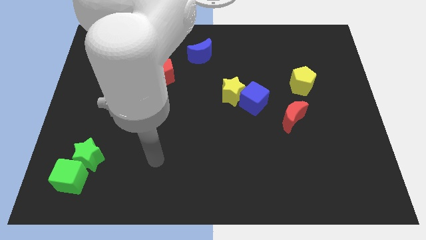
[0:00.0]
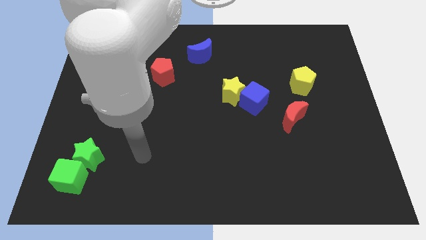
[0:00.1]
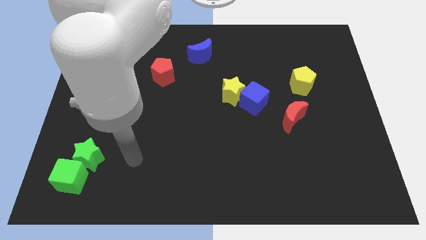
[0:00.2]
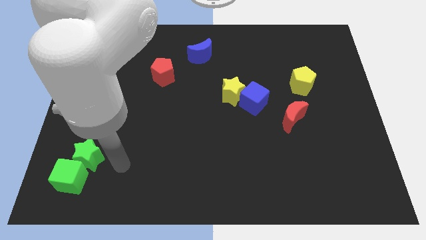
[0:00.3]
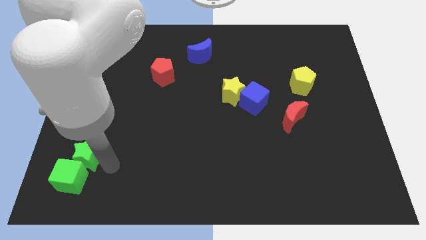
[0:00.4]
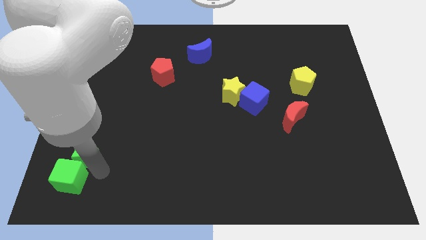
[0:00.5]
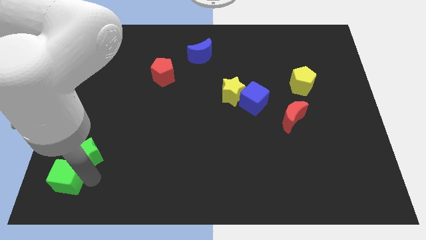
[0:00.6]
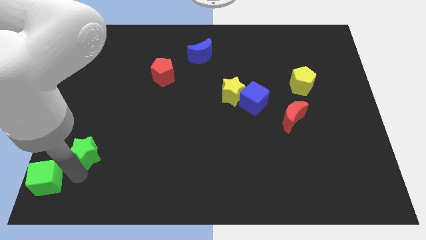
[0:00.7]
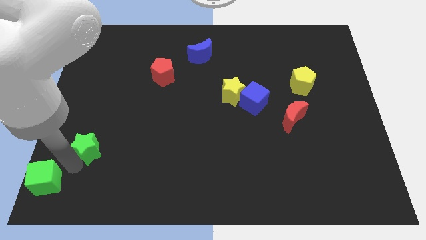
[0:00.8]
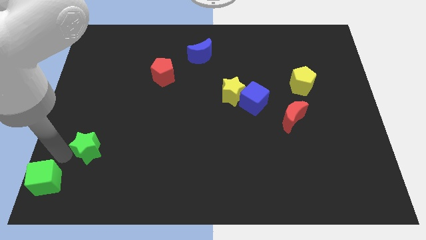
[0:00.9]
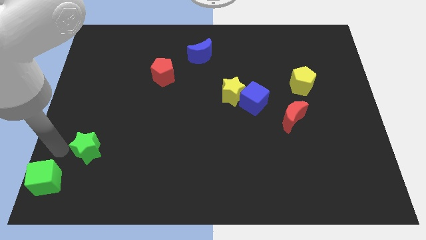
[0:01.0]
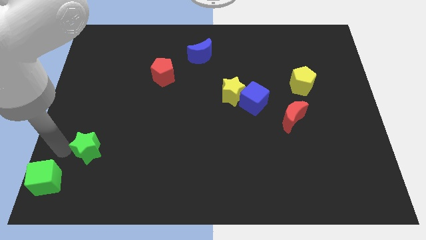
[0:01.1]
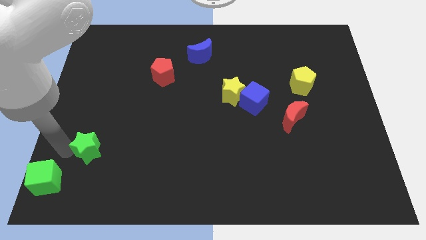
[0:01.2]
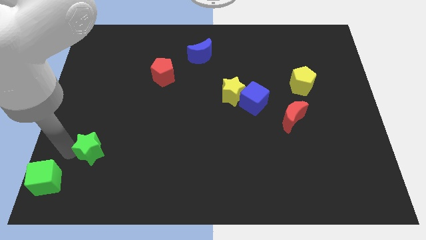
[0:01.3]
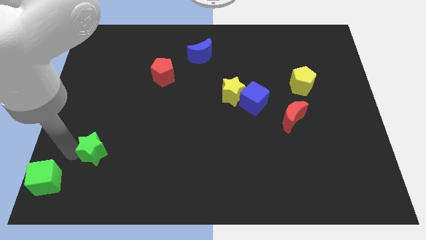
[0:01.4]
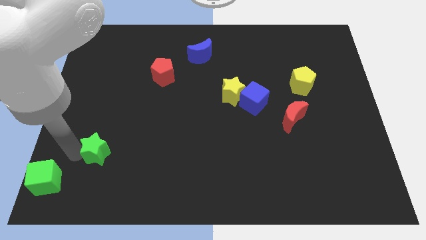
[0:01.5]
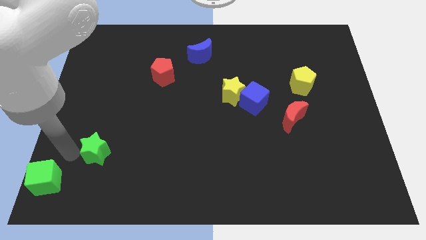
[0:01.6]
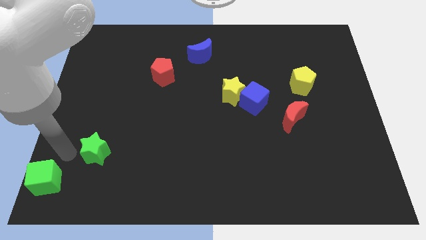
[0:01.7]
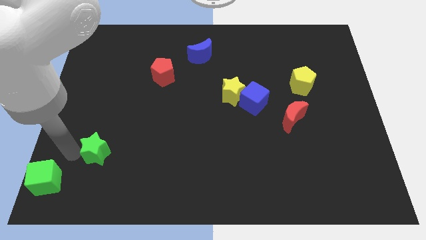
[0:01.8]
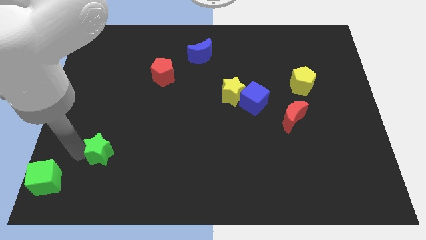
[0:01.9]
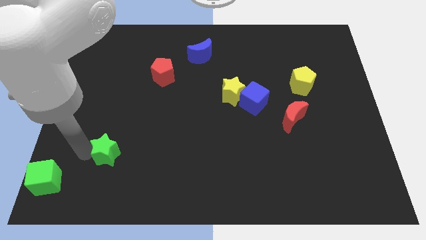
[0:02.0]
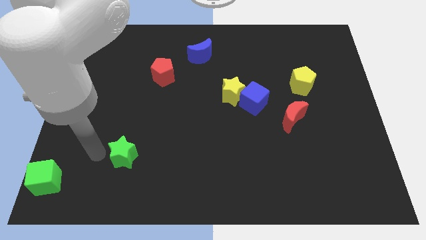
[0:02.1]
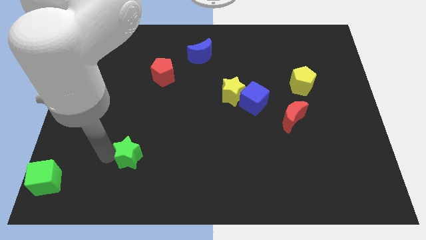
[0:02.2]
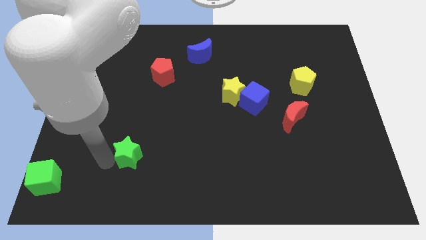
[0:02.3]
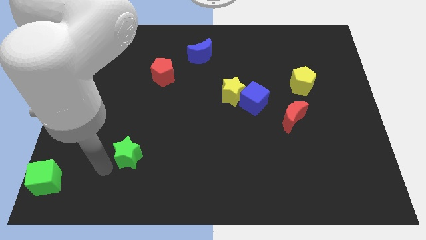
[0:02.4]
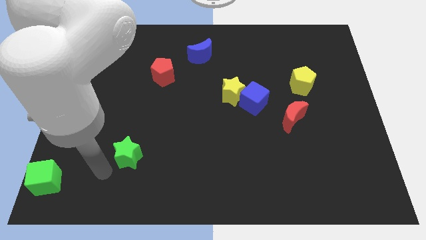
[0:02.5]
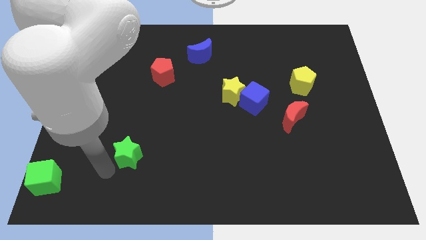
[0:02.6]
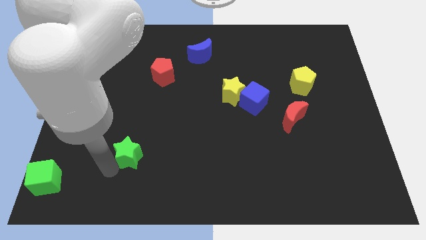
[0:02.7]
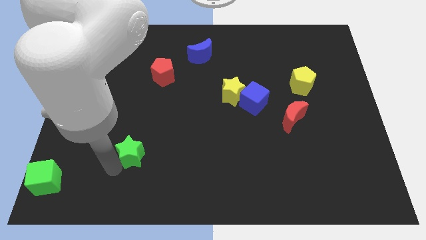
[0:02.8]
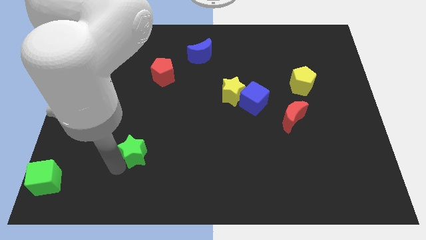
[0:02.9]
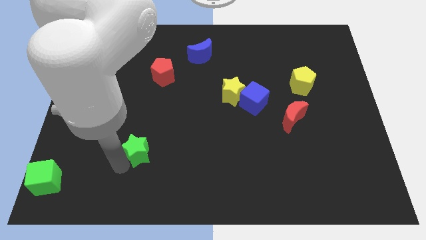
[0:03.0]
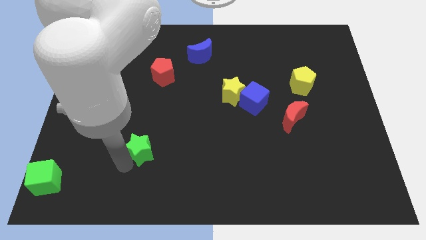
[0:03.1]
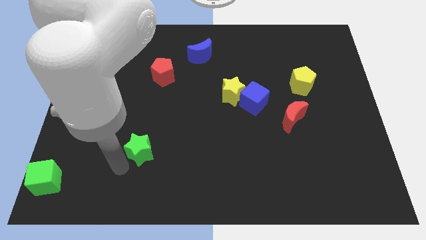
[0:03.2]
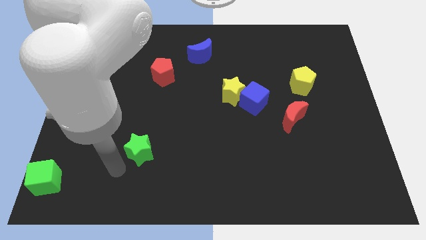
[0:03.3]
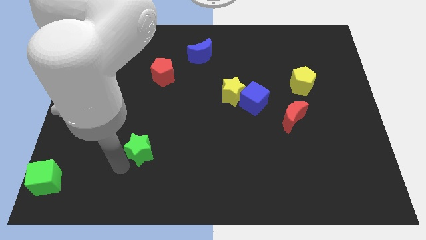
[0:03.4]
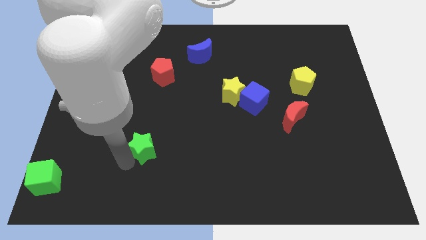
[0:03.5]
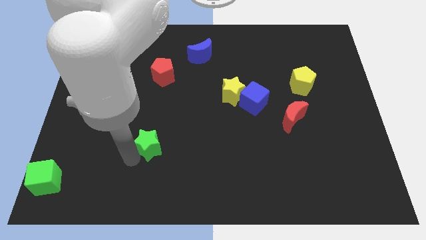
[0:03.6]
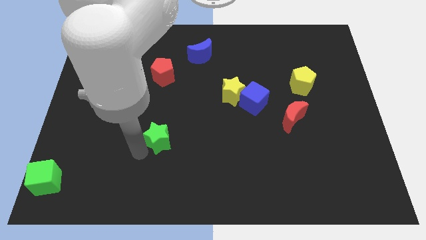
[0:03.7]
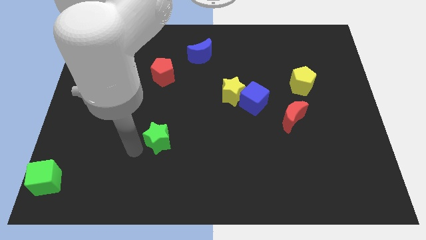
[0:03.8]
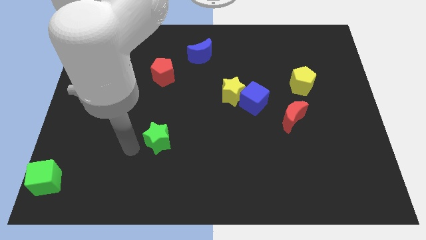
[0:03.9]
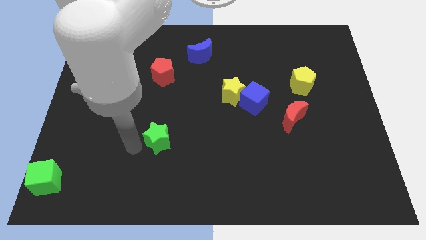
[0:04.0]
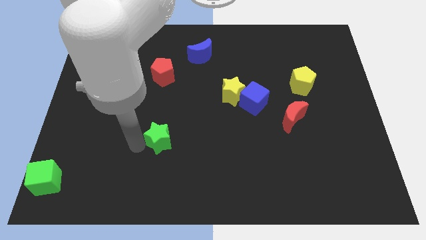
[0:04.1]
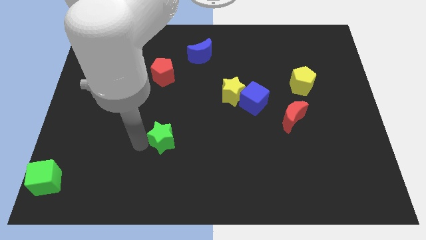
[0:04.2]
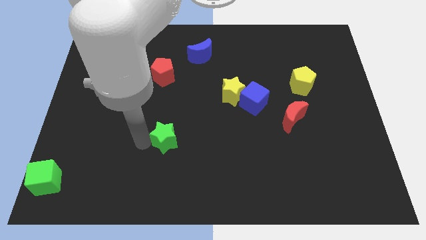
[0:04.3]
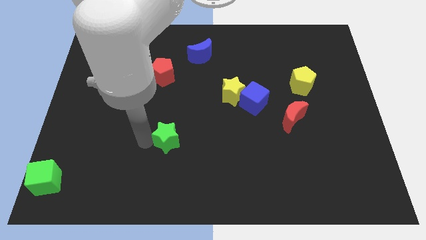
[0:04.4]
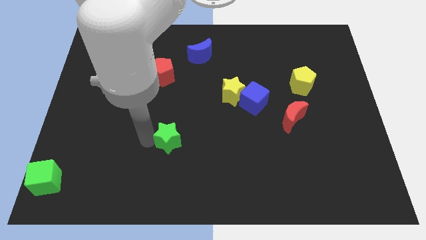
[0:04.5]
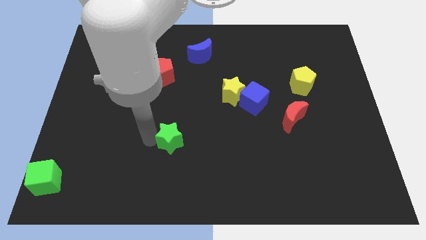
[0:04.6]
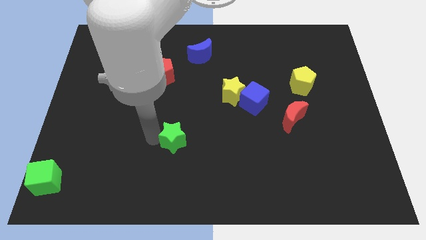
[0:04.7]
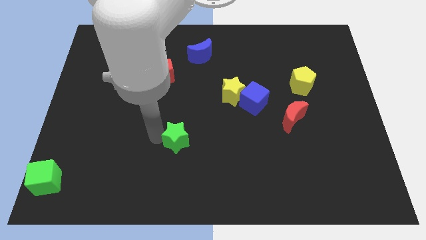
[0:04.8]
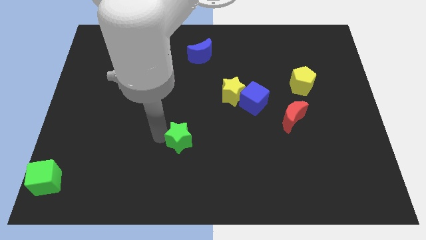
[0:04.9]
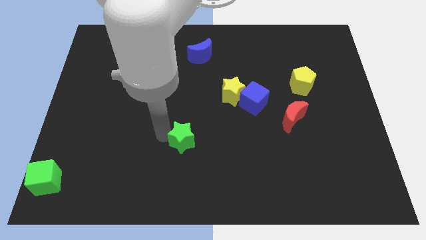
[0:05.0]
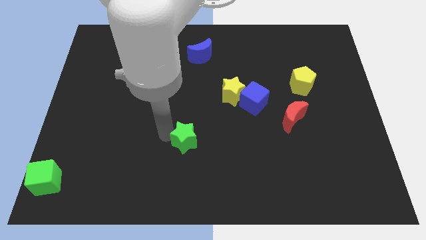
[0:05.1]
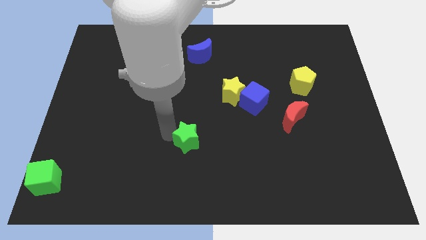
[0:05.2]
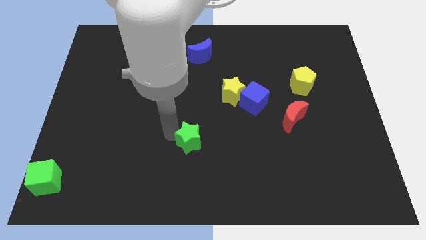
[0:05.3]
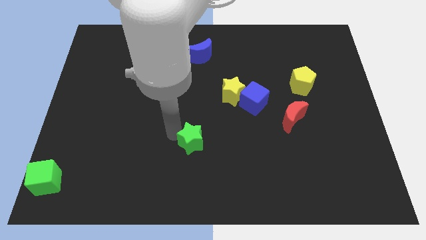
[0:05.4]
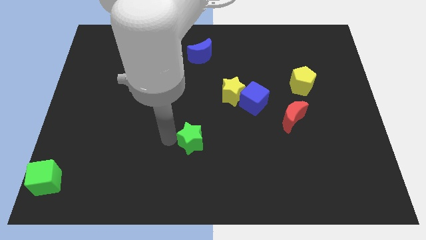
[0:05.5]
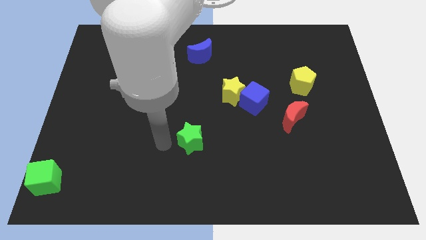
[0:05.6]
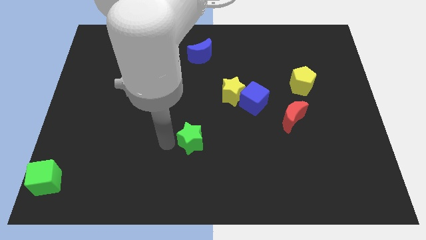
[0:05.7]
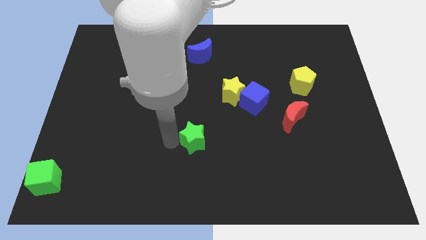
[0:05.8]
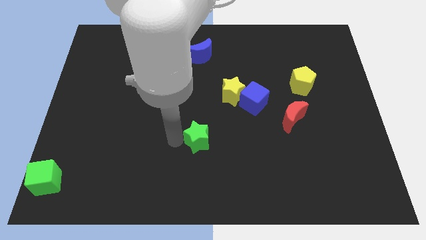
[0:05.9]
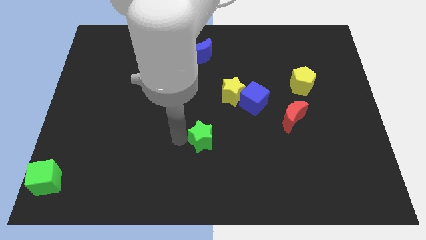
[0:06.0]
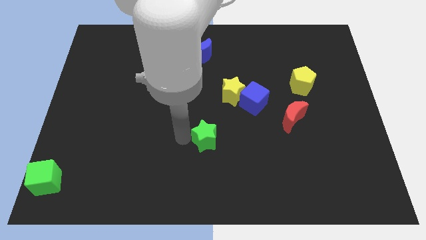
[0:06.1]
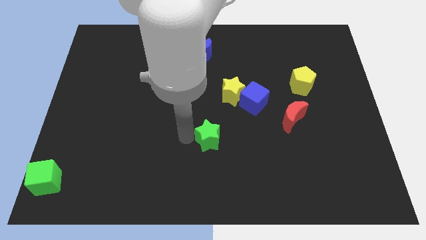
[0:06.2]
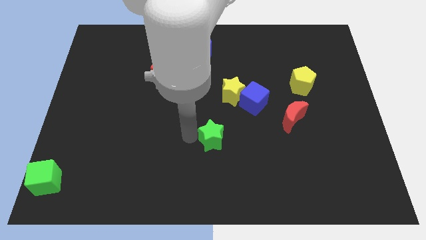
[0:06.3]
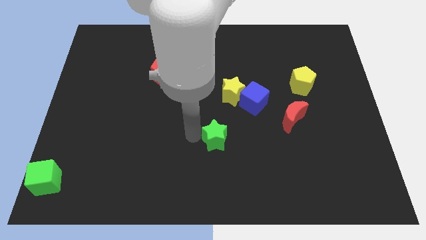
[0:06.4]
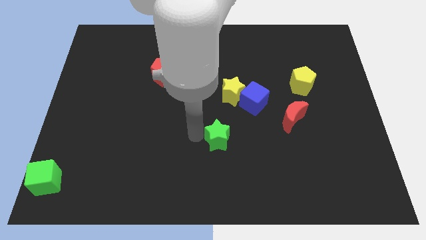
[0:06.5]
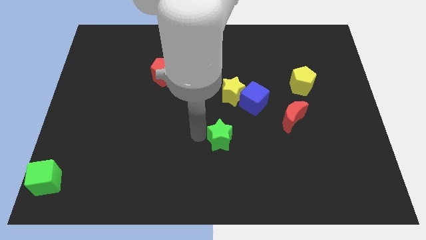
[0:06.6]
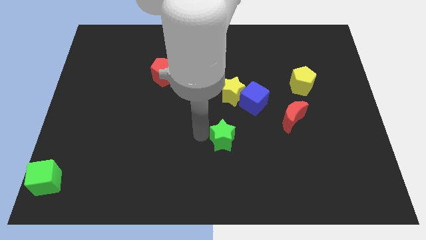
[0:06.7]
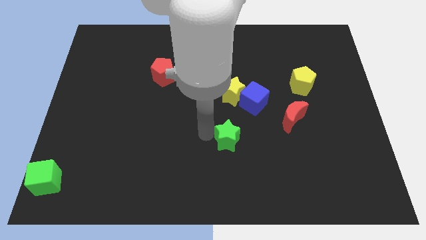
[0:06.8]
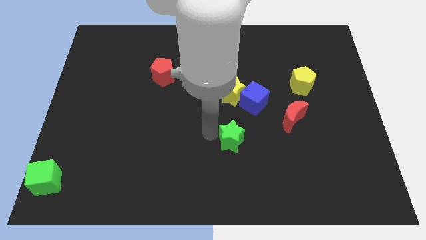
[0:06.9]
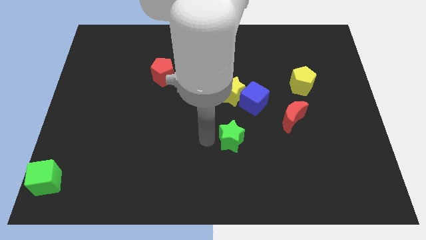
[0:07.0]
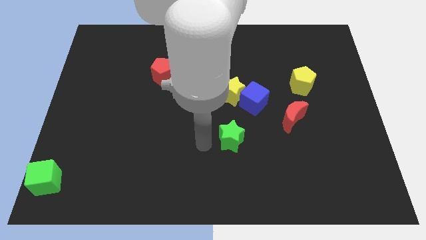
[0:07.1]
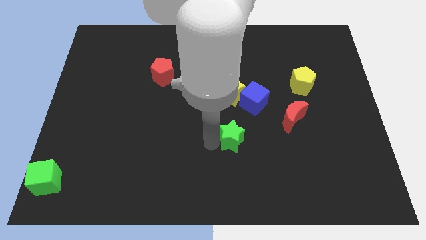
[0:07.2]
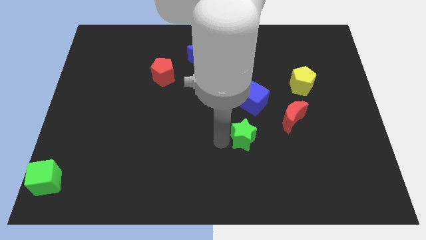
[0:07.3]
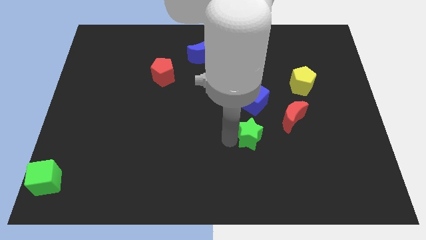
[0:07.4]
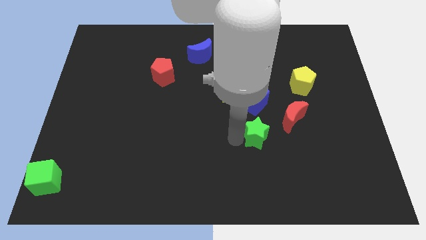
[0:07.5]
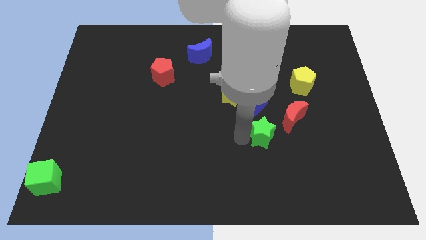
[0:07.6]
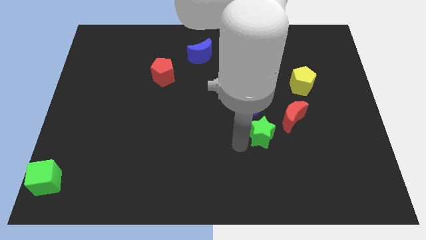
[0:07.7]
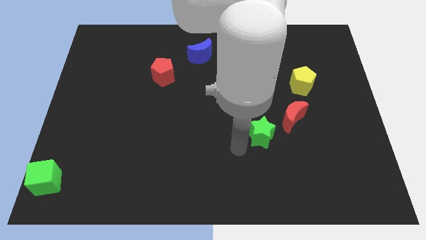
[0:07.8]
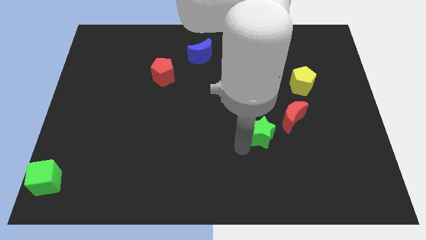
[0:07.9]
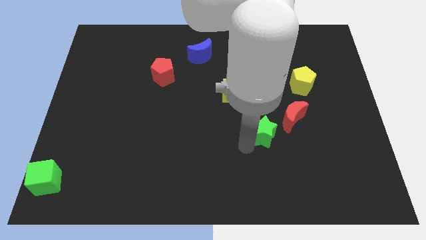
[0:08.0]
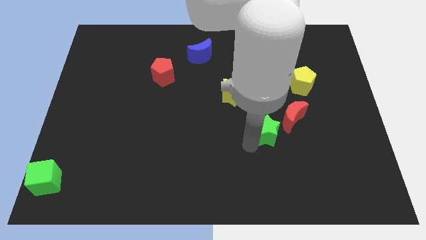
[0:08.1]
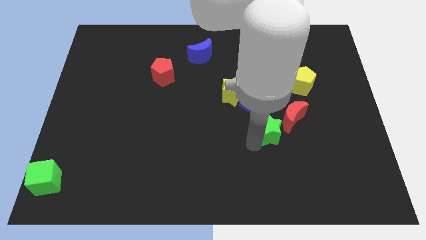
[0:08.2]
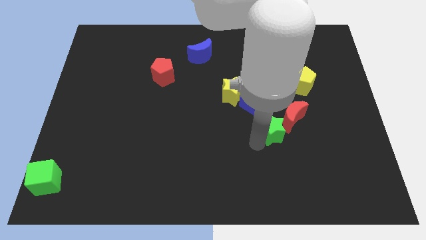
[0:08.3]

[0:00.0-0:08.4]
move the green star next to the red moon
